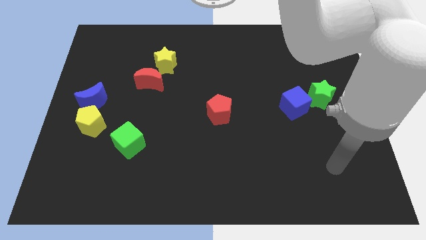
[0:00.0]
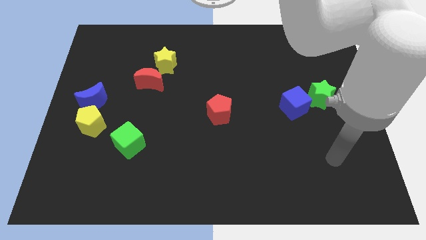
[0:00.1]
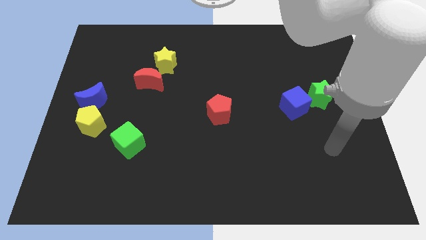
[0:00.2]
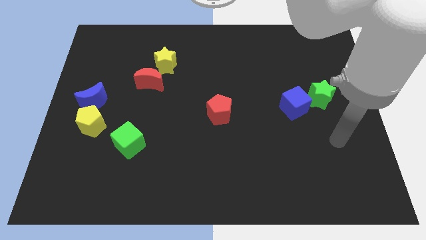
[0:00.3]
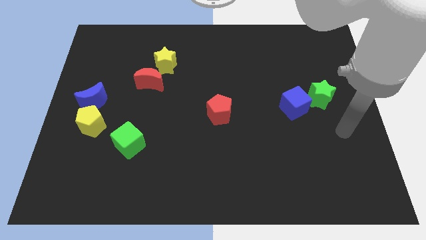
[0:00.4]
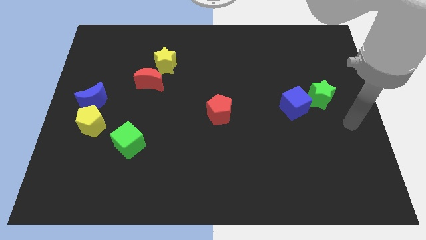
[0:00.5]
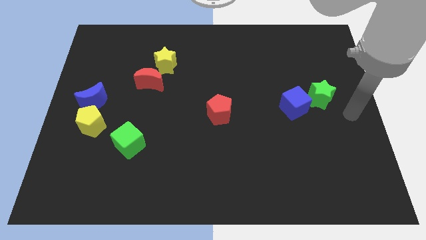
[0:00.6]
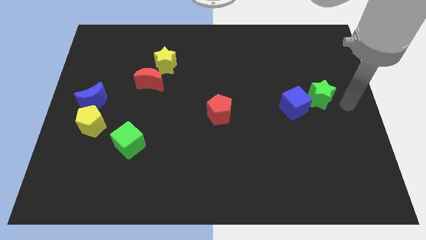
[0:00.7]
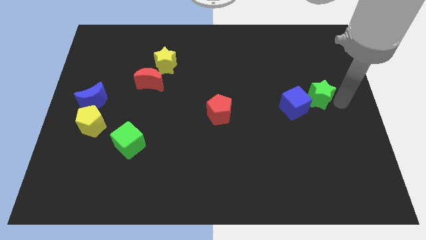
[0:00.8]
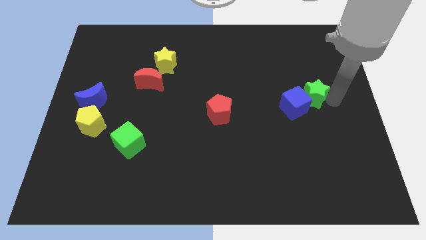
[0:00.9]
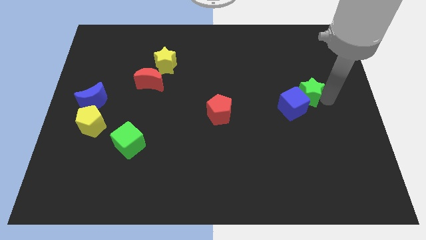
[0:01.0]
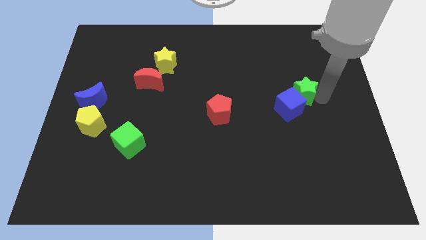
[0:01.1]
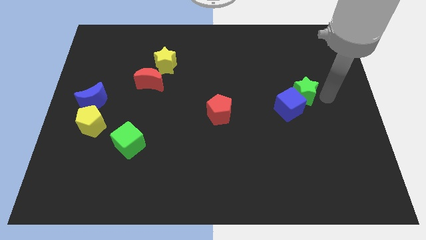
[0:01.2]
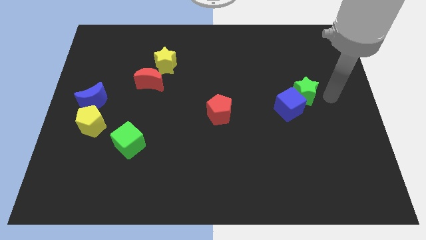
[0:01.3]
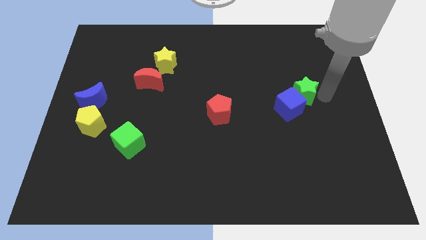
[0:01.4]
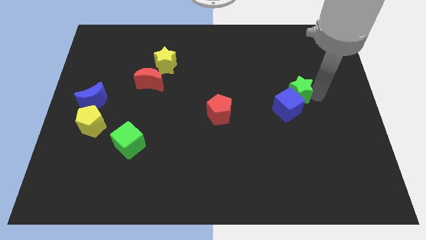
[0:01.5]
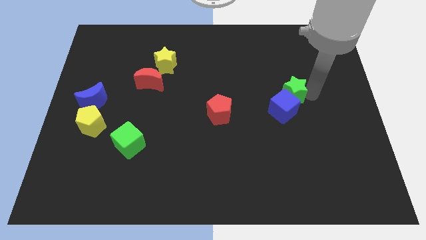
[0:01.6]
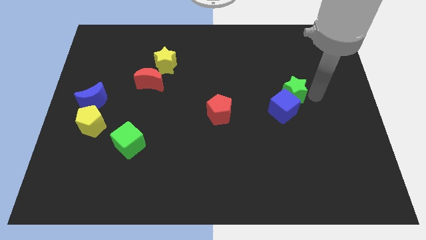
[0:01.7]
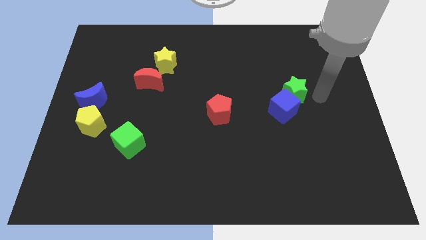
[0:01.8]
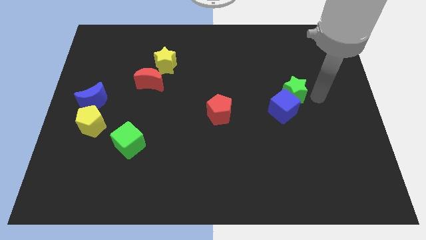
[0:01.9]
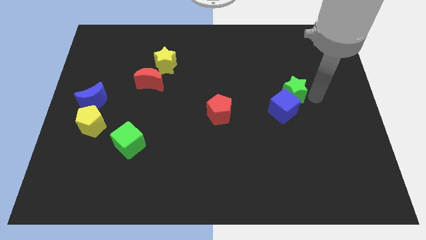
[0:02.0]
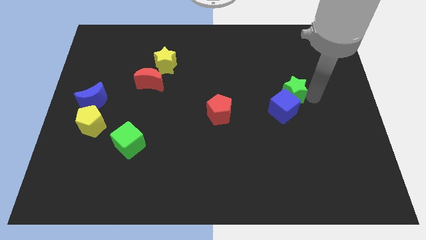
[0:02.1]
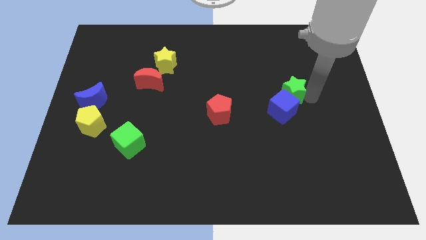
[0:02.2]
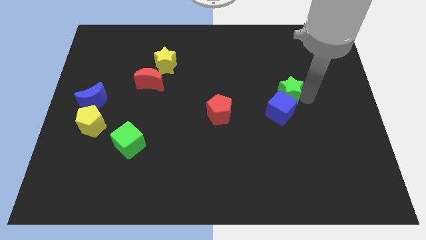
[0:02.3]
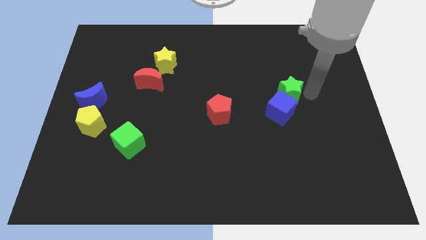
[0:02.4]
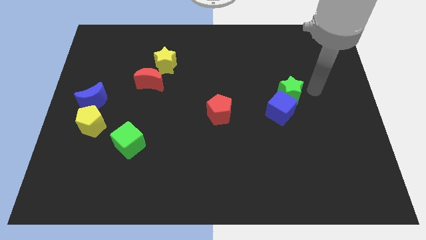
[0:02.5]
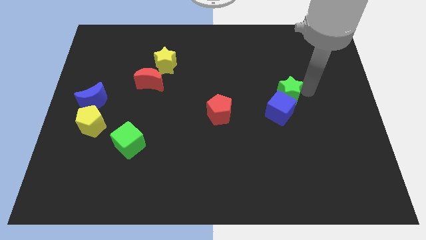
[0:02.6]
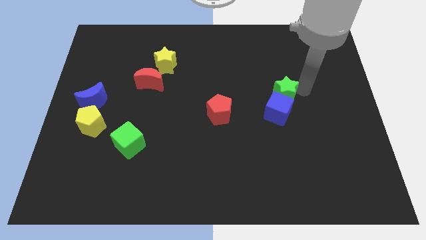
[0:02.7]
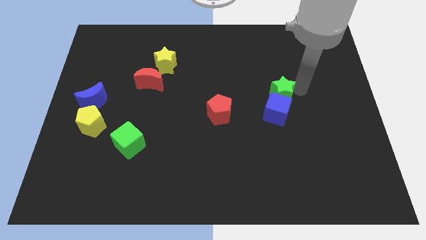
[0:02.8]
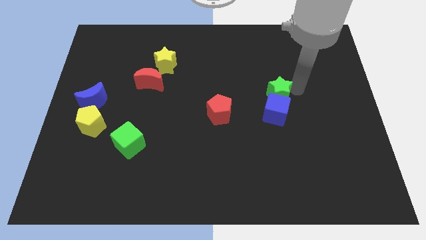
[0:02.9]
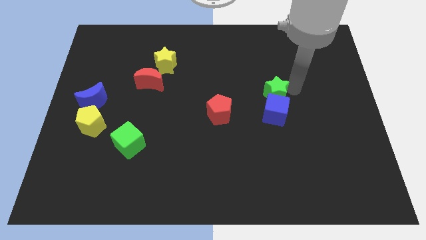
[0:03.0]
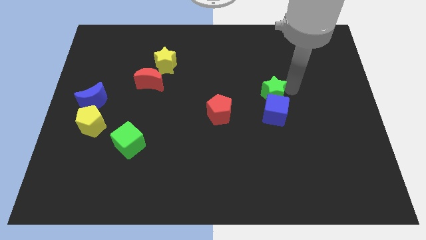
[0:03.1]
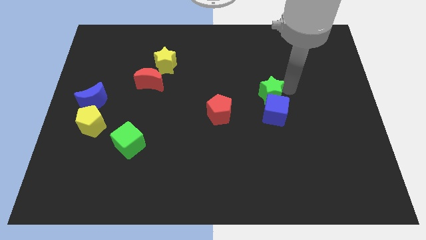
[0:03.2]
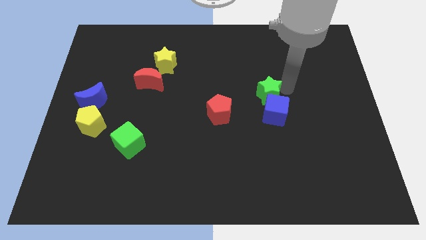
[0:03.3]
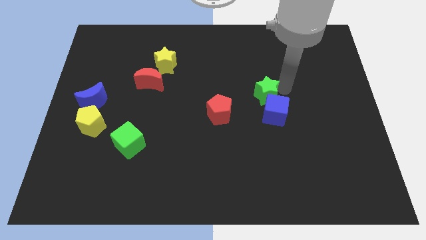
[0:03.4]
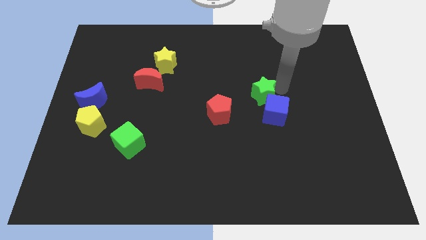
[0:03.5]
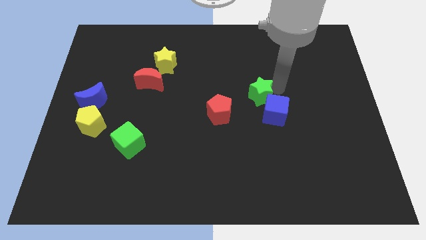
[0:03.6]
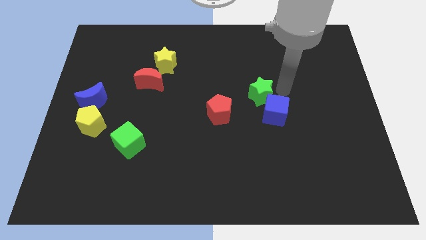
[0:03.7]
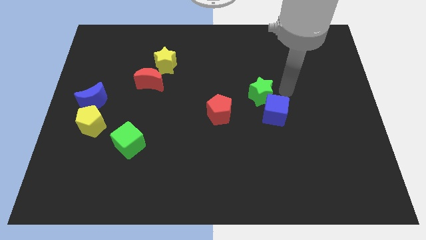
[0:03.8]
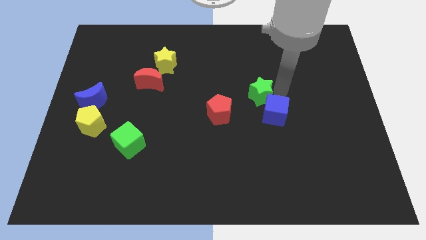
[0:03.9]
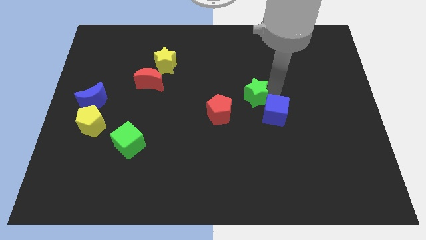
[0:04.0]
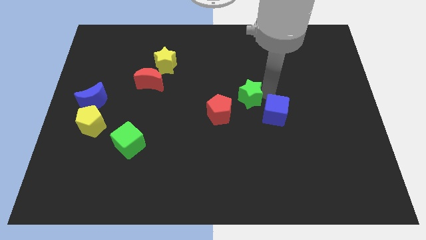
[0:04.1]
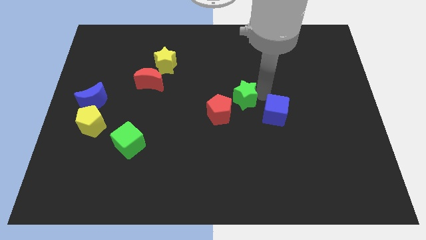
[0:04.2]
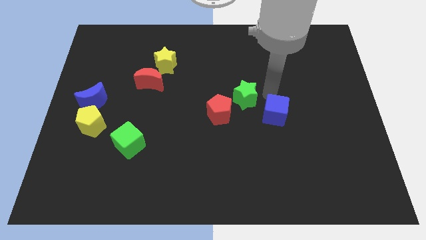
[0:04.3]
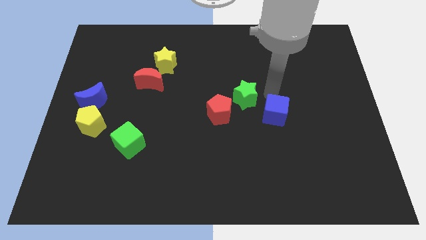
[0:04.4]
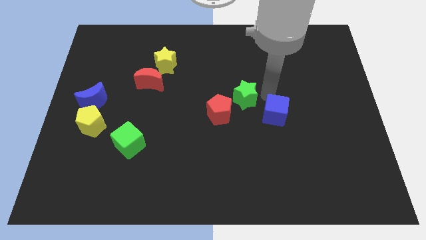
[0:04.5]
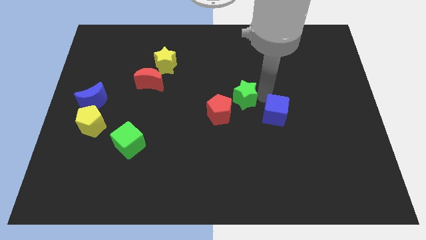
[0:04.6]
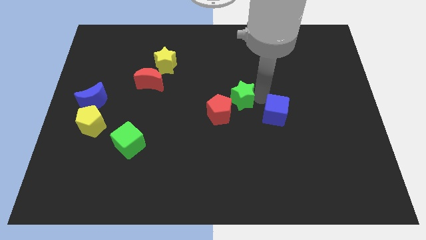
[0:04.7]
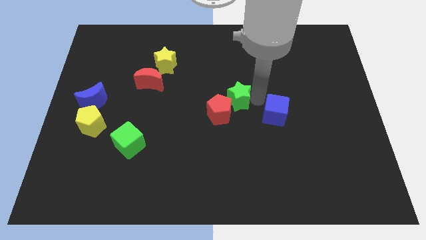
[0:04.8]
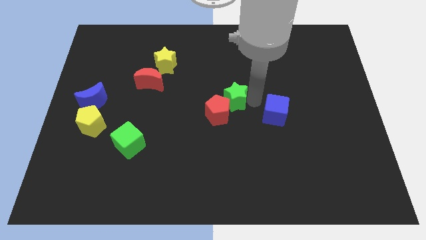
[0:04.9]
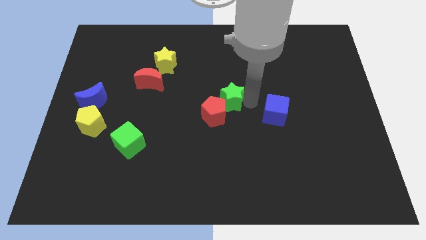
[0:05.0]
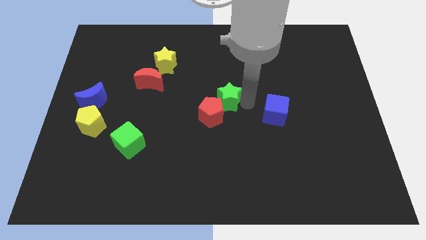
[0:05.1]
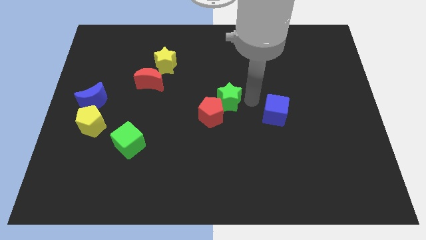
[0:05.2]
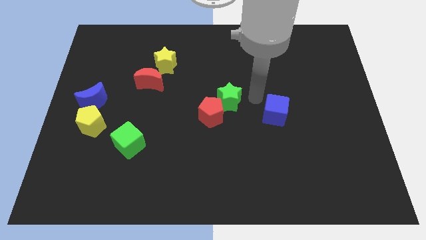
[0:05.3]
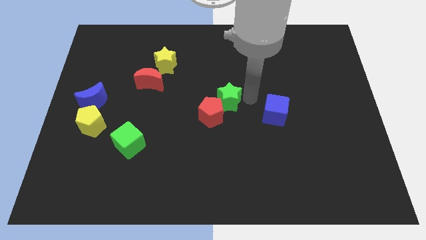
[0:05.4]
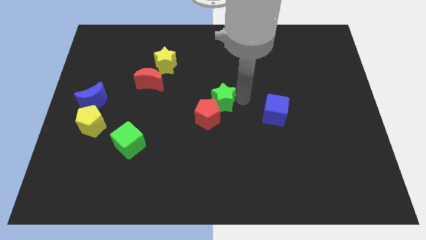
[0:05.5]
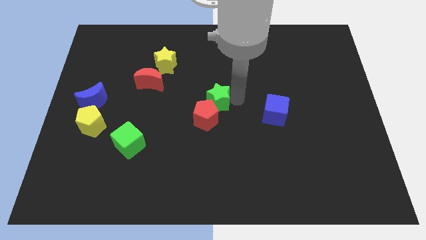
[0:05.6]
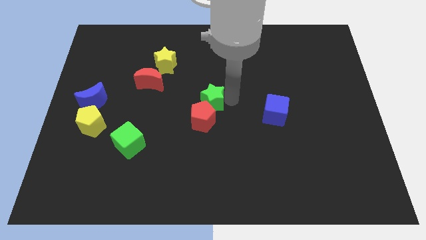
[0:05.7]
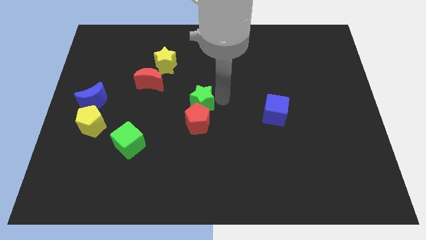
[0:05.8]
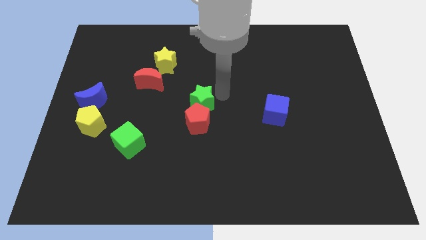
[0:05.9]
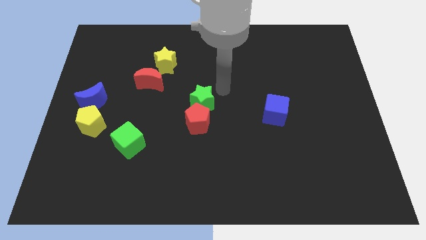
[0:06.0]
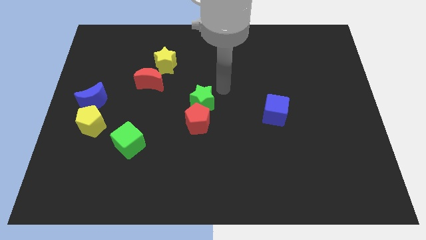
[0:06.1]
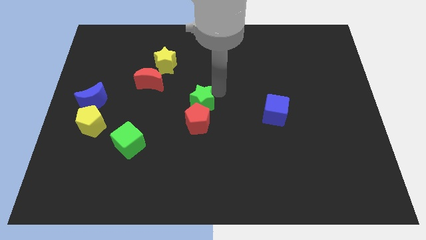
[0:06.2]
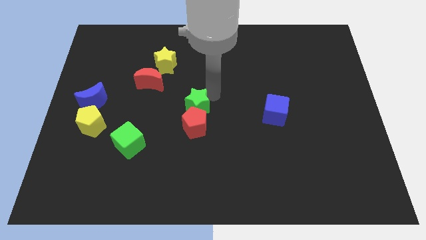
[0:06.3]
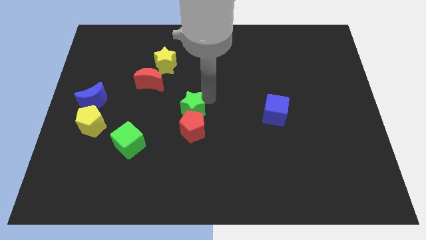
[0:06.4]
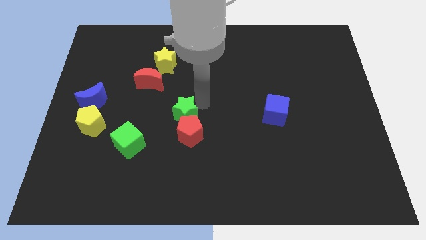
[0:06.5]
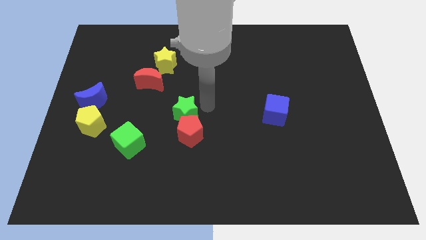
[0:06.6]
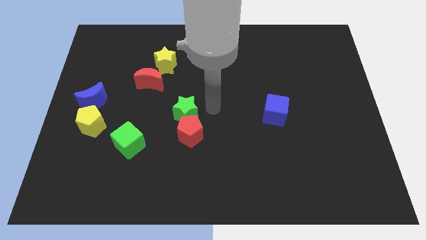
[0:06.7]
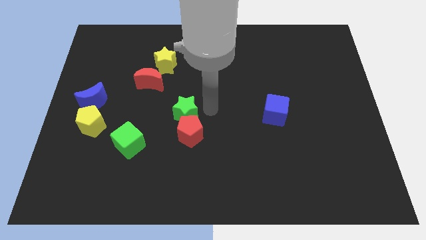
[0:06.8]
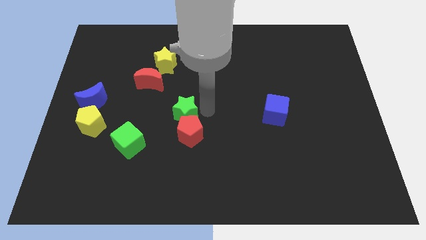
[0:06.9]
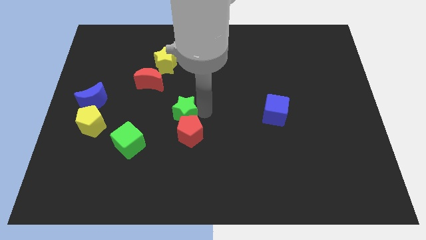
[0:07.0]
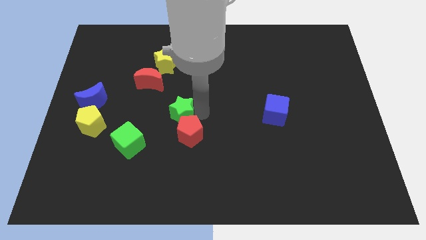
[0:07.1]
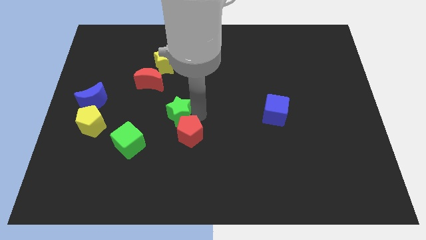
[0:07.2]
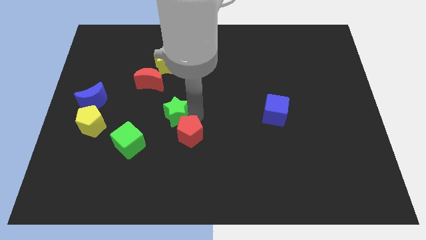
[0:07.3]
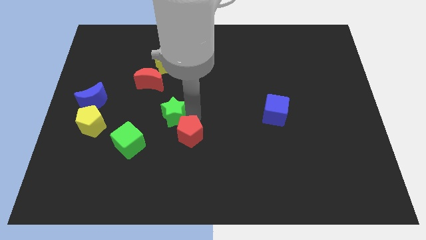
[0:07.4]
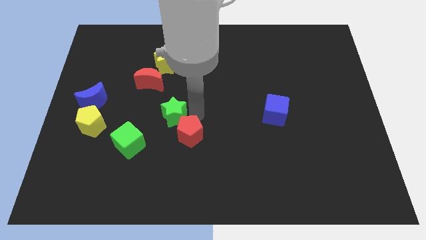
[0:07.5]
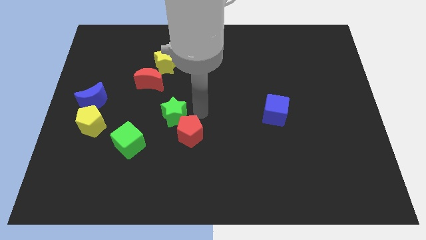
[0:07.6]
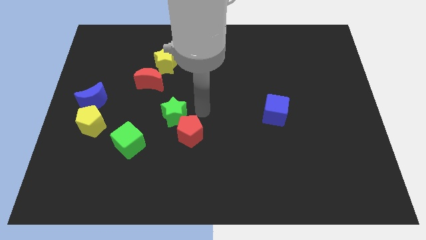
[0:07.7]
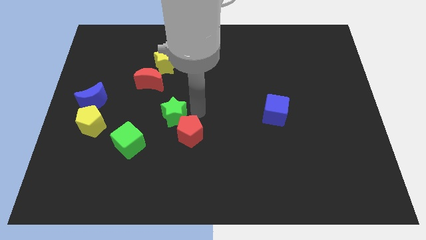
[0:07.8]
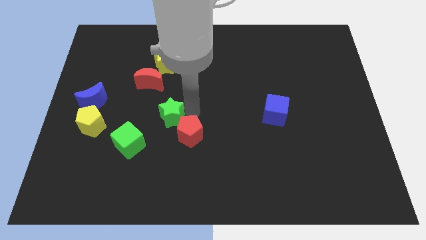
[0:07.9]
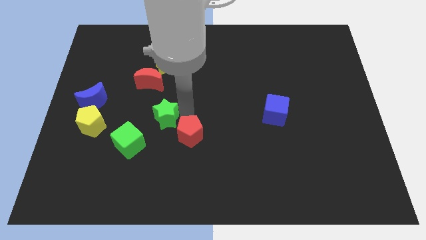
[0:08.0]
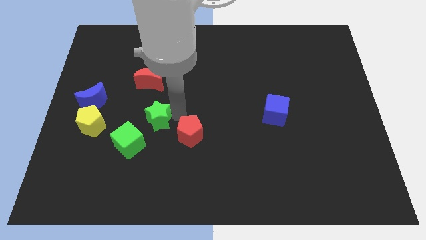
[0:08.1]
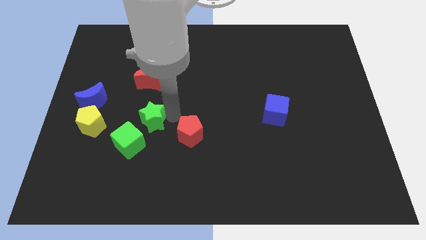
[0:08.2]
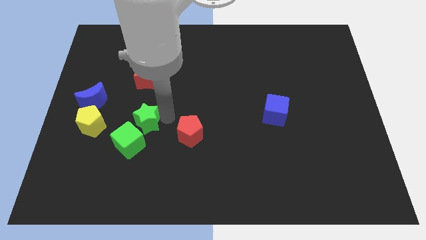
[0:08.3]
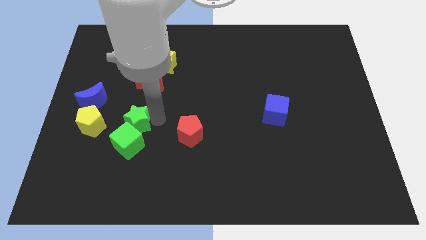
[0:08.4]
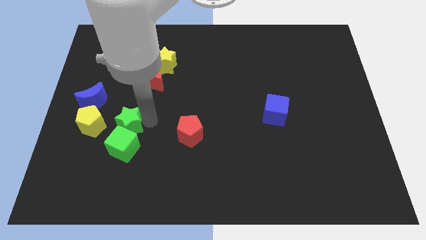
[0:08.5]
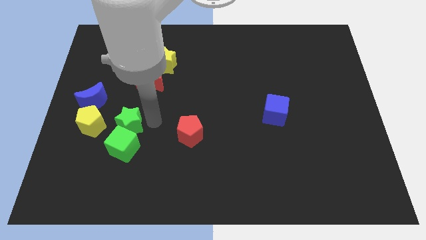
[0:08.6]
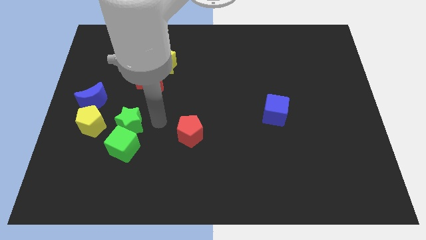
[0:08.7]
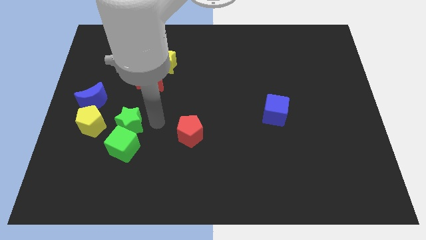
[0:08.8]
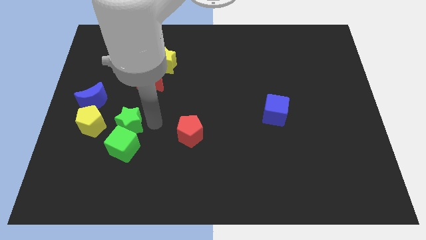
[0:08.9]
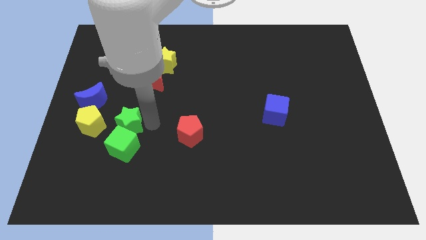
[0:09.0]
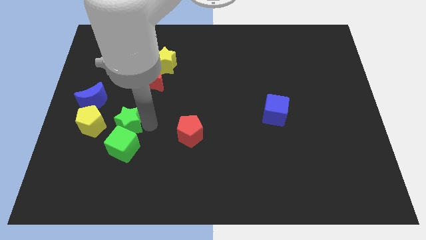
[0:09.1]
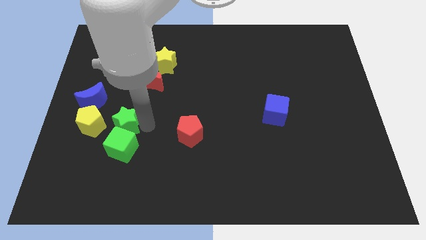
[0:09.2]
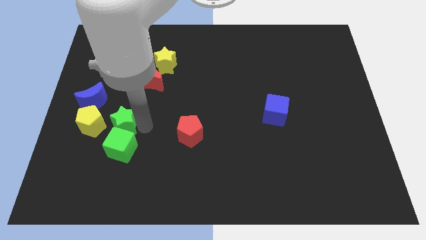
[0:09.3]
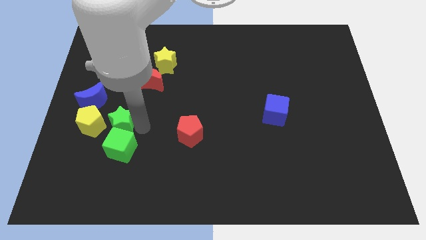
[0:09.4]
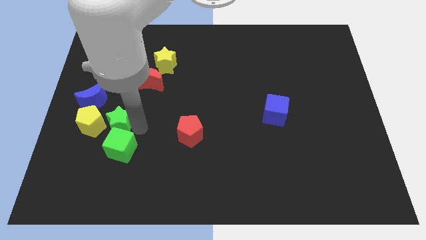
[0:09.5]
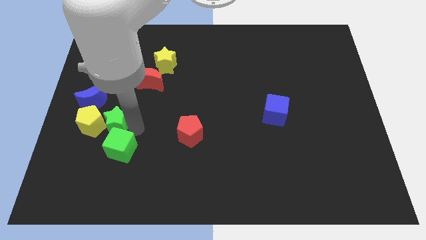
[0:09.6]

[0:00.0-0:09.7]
slide the green star next to the yellow pentagon
